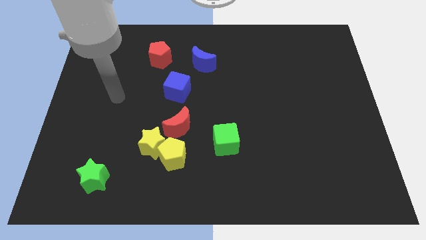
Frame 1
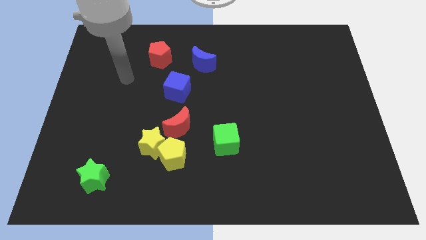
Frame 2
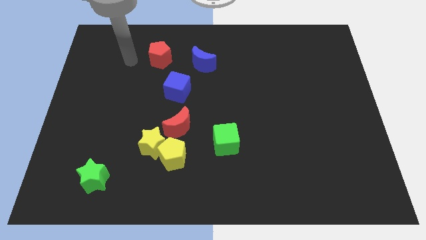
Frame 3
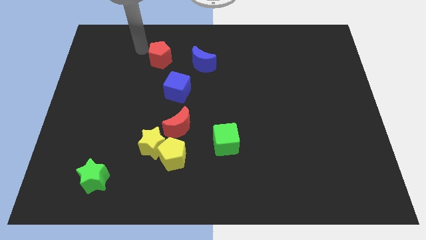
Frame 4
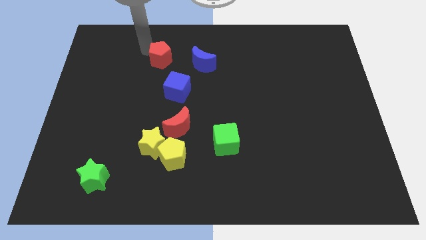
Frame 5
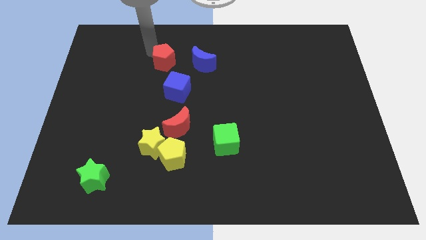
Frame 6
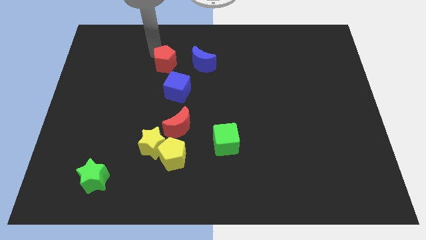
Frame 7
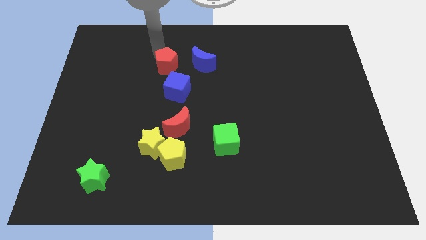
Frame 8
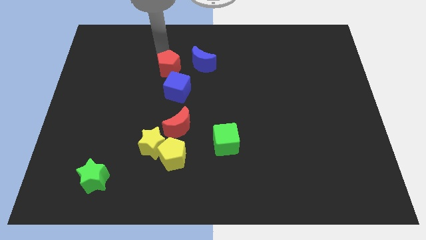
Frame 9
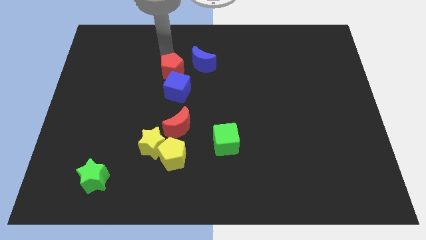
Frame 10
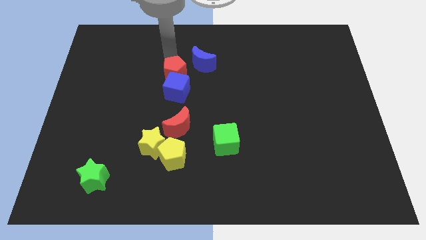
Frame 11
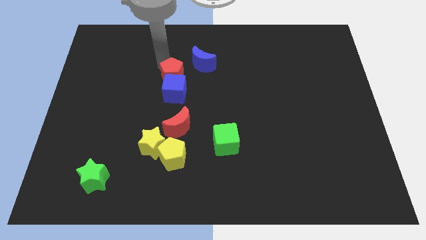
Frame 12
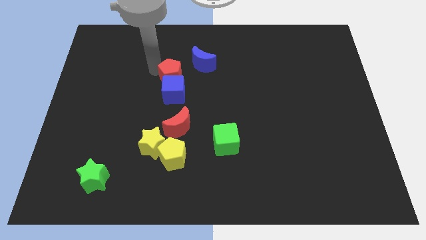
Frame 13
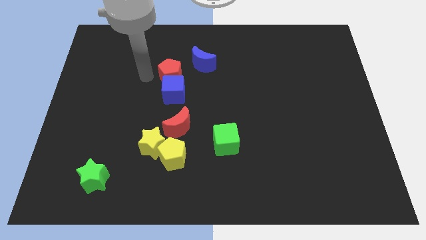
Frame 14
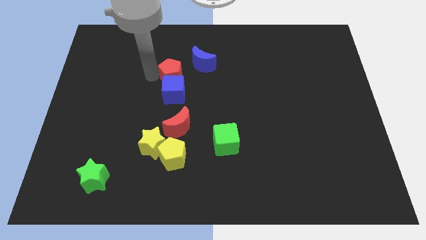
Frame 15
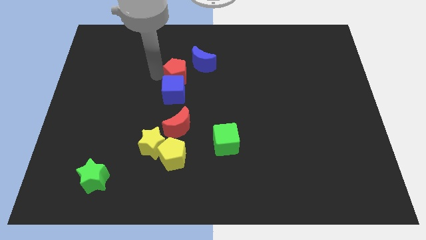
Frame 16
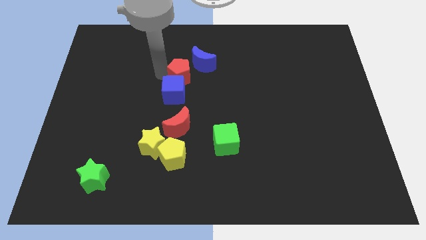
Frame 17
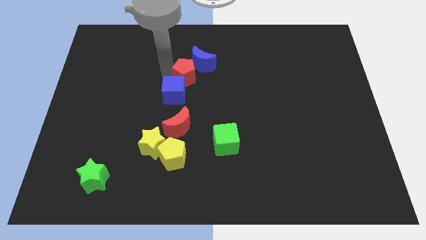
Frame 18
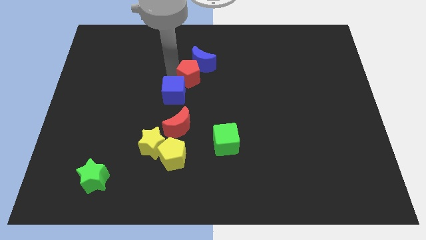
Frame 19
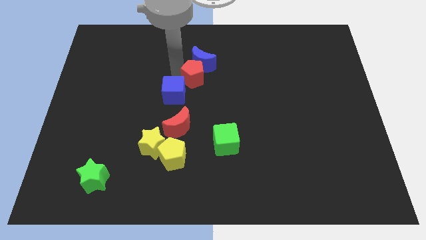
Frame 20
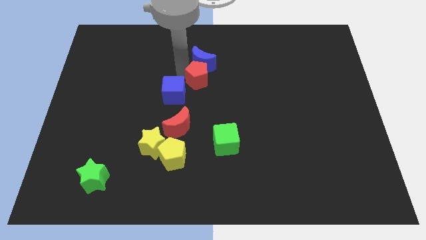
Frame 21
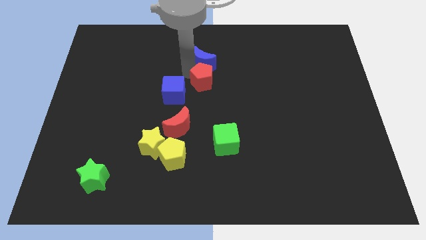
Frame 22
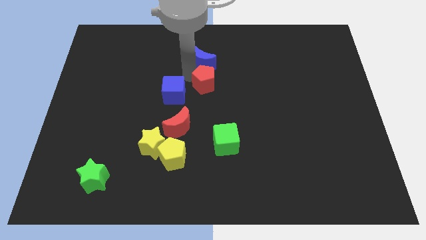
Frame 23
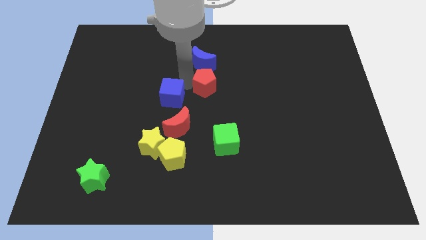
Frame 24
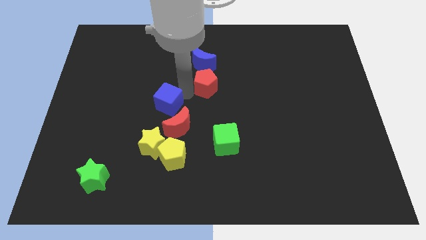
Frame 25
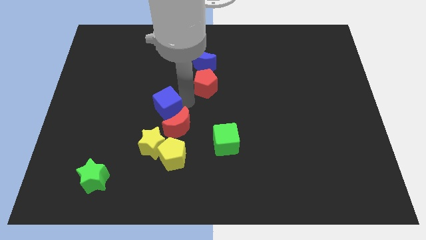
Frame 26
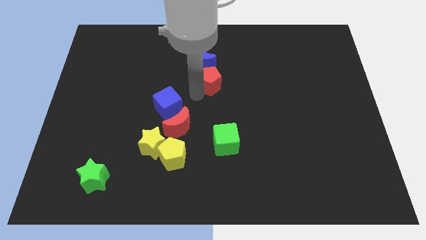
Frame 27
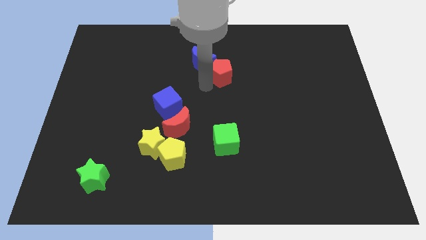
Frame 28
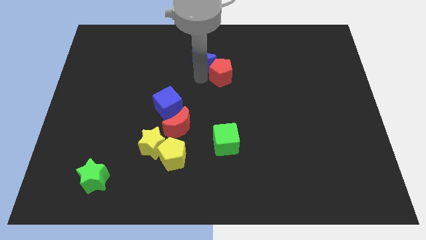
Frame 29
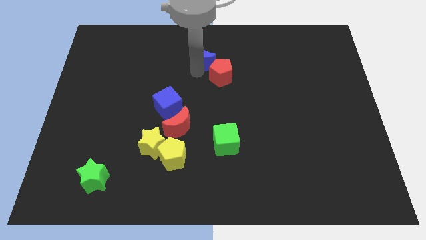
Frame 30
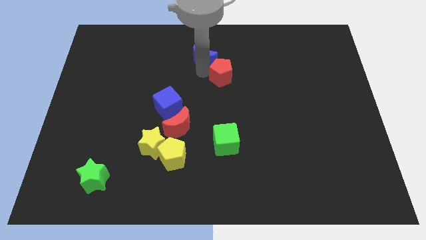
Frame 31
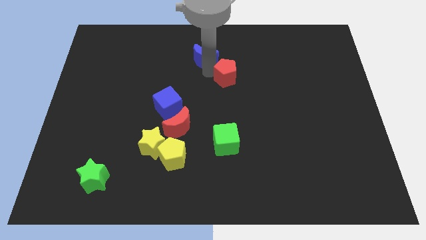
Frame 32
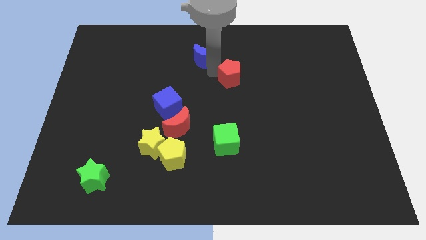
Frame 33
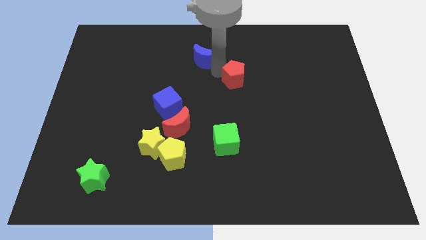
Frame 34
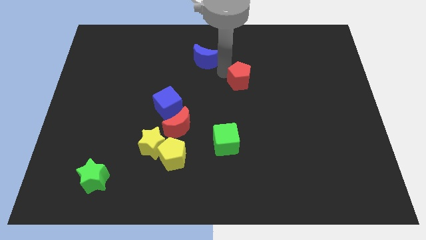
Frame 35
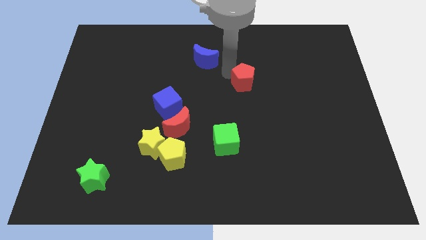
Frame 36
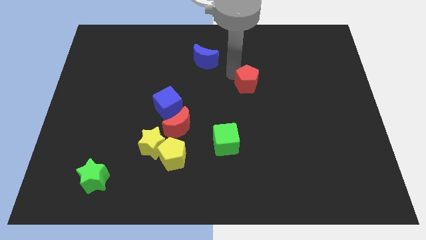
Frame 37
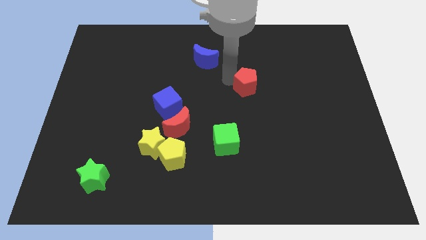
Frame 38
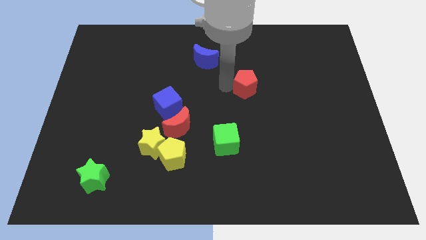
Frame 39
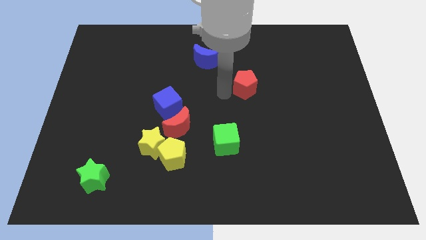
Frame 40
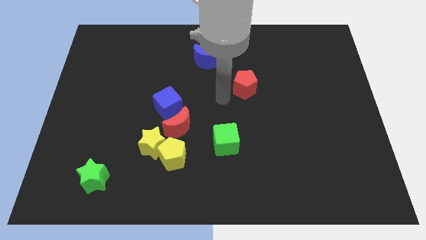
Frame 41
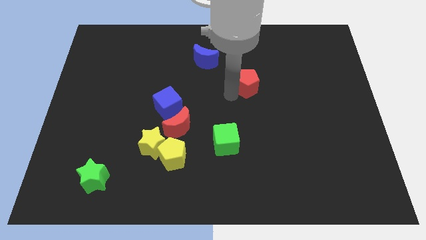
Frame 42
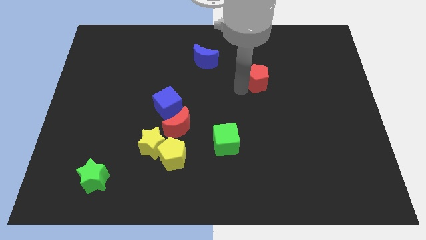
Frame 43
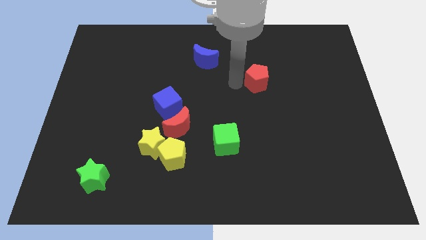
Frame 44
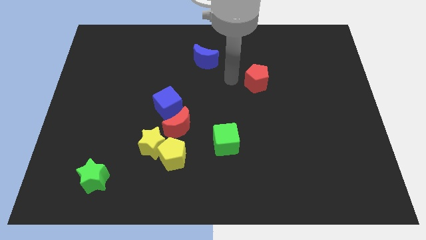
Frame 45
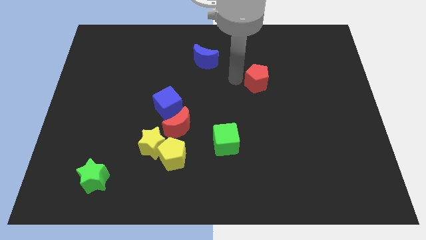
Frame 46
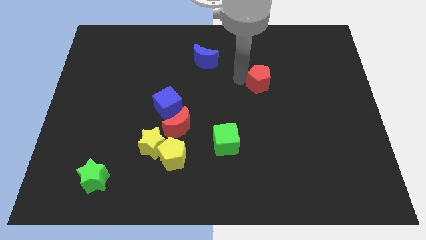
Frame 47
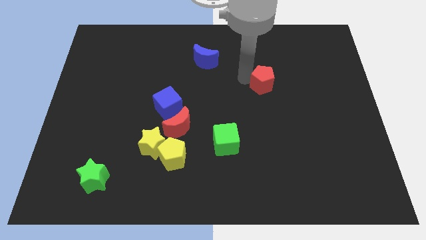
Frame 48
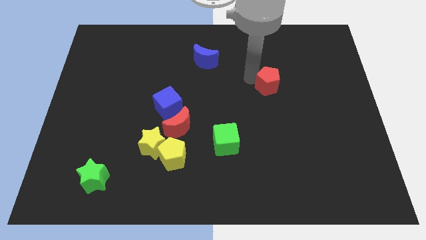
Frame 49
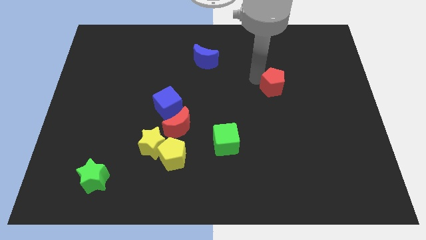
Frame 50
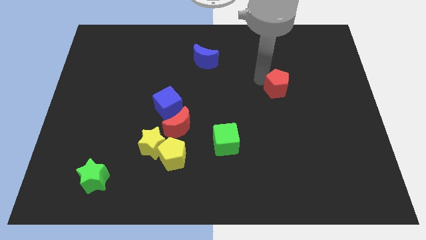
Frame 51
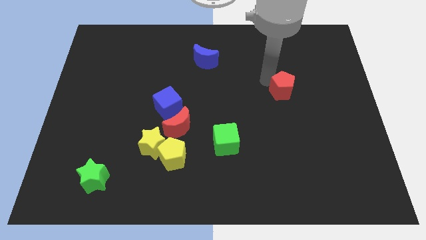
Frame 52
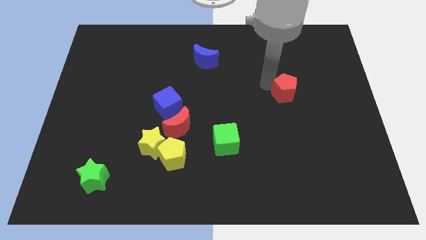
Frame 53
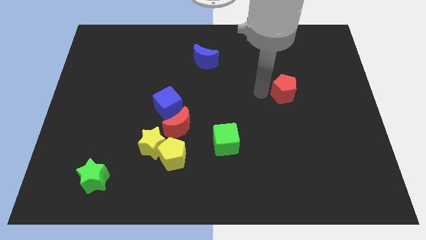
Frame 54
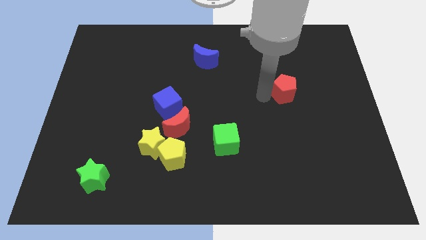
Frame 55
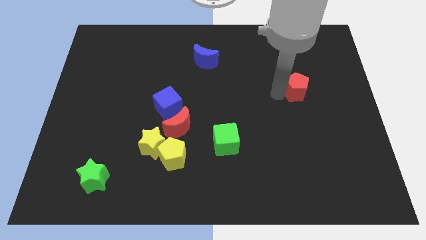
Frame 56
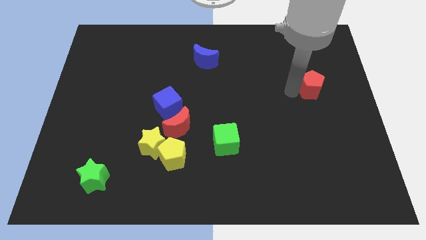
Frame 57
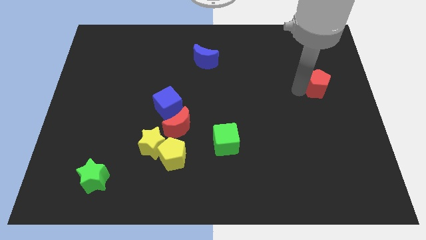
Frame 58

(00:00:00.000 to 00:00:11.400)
slide the red pentagon to the center right
